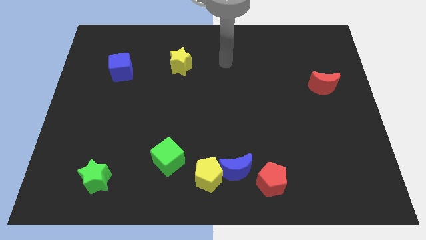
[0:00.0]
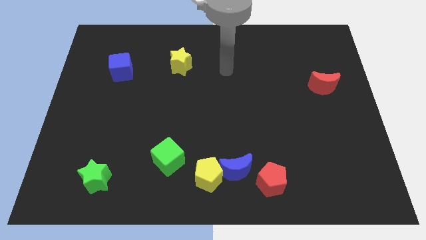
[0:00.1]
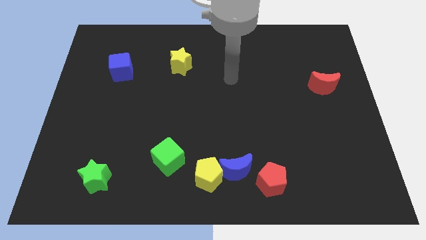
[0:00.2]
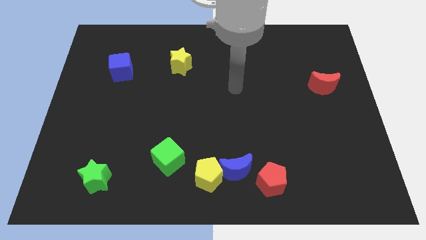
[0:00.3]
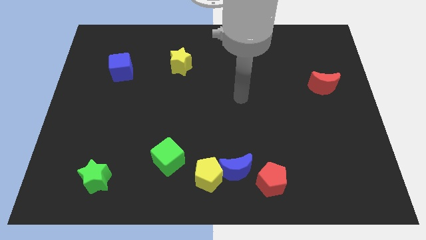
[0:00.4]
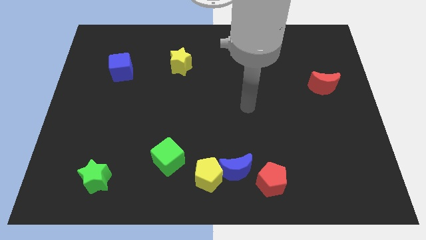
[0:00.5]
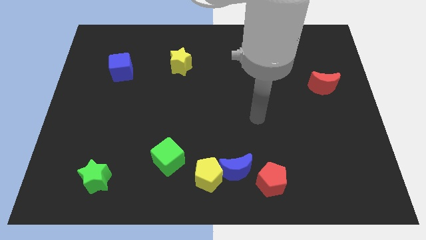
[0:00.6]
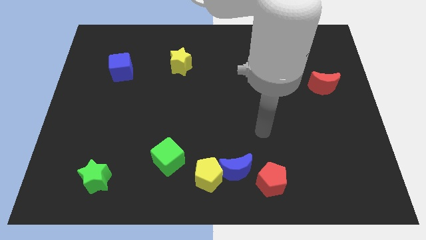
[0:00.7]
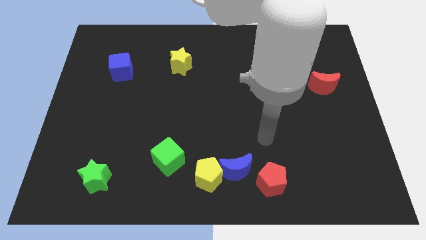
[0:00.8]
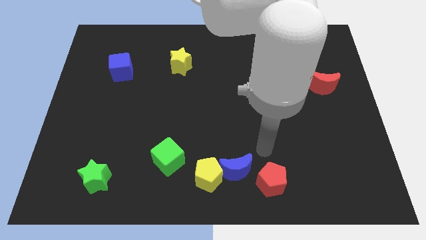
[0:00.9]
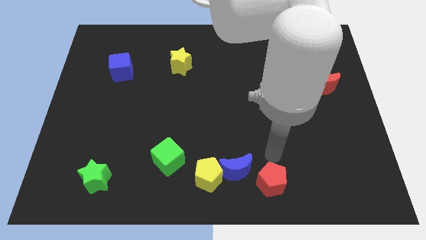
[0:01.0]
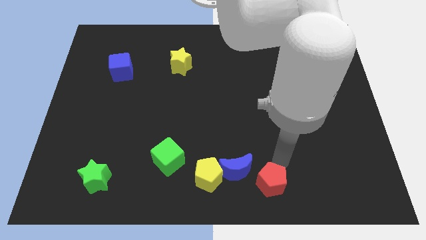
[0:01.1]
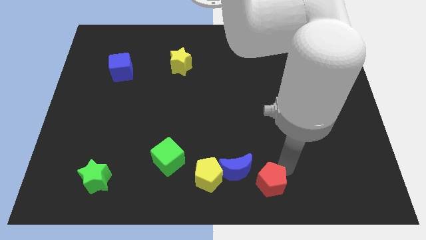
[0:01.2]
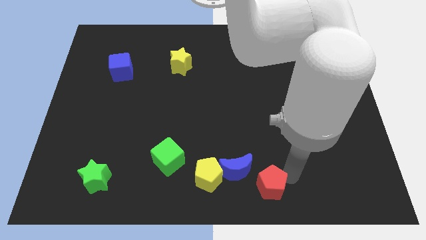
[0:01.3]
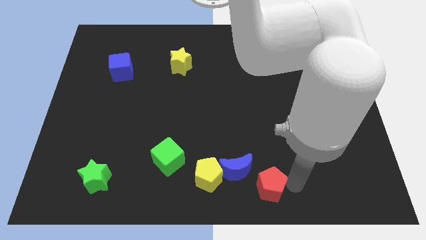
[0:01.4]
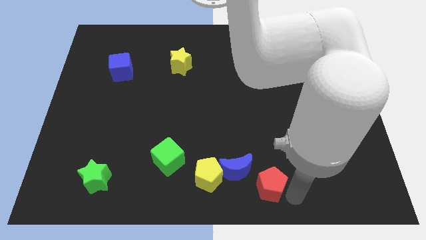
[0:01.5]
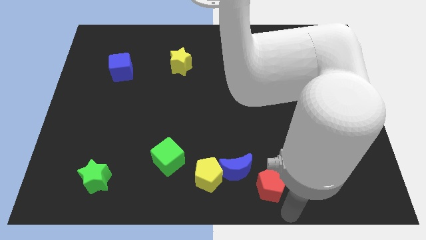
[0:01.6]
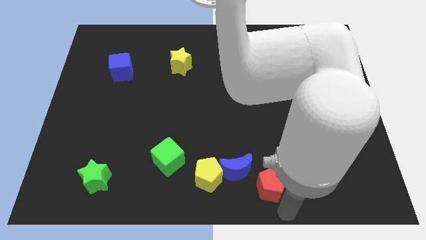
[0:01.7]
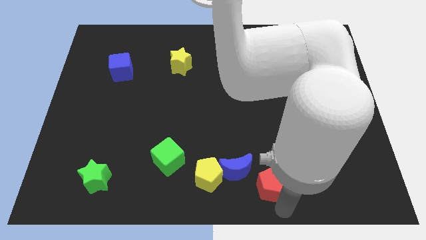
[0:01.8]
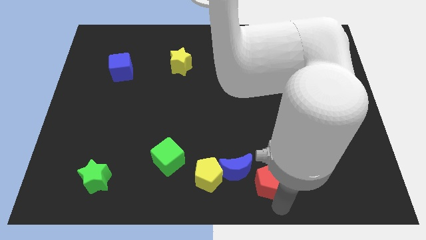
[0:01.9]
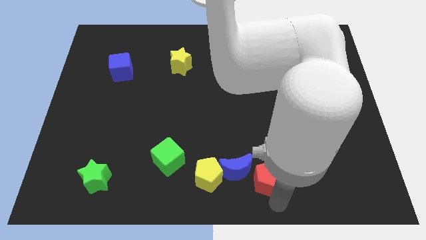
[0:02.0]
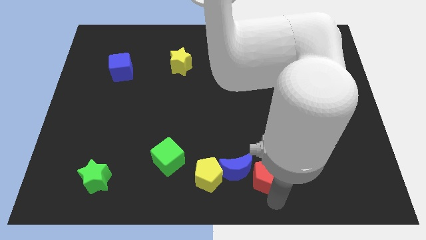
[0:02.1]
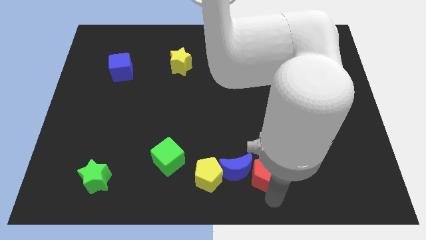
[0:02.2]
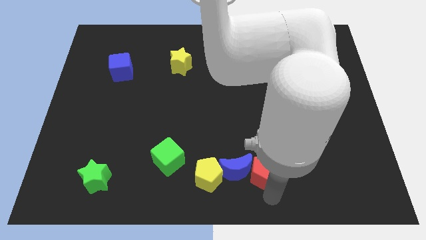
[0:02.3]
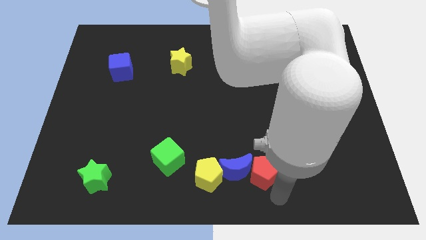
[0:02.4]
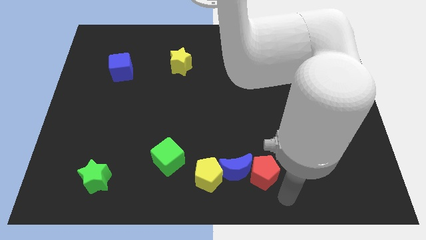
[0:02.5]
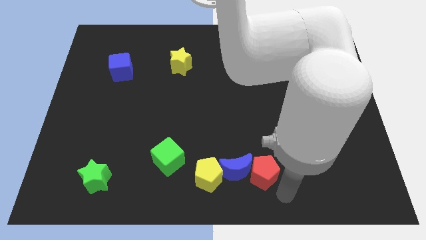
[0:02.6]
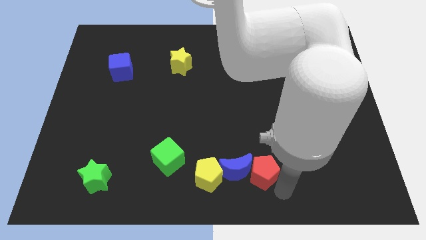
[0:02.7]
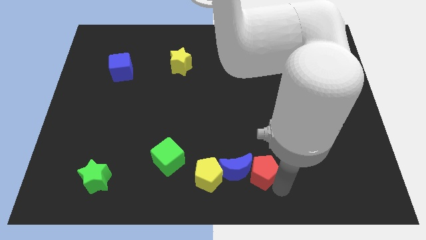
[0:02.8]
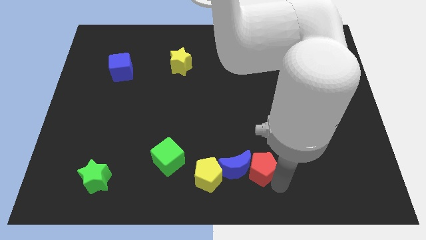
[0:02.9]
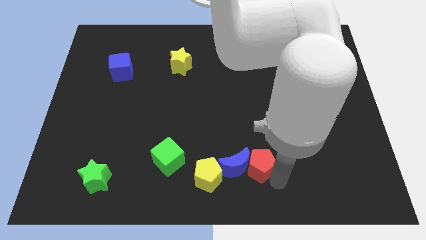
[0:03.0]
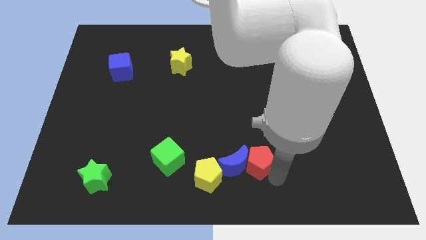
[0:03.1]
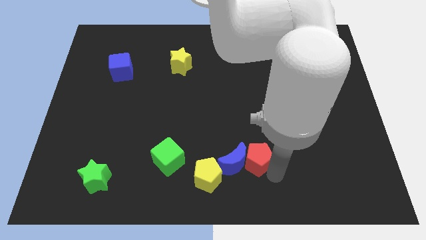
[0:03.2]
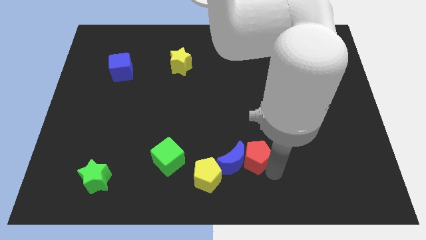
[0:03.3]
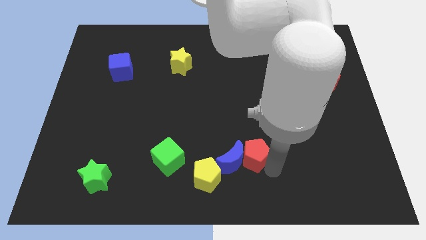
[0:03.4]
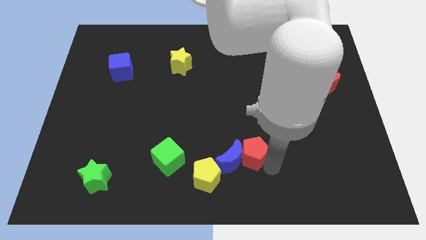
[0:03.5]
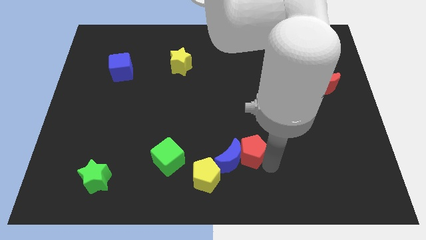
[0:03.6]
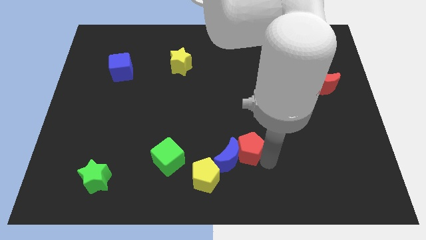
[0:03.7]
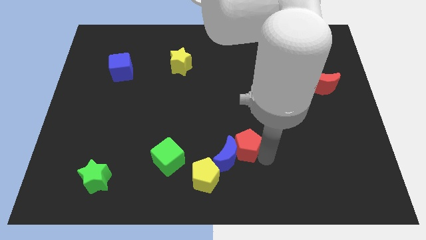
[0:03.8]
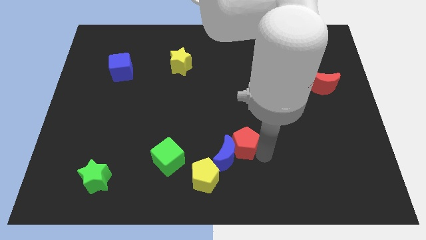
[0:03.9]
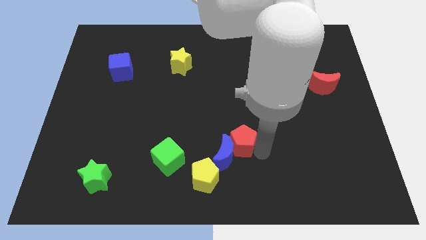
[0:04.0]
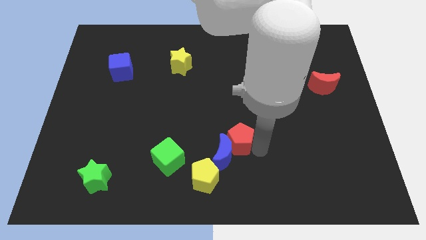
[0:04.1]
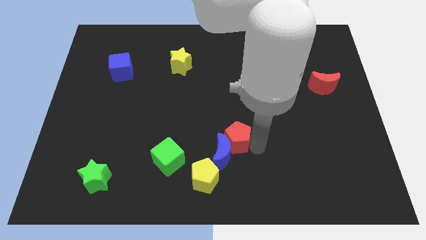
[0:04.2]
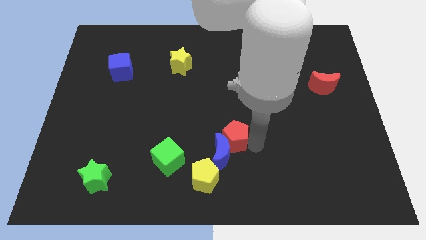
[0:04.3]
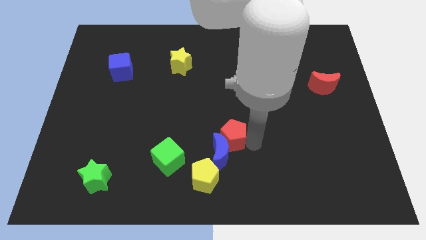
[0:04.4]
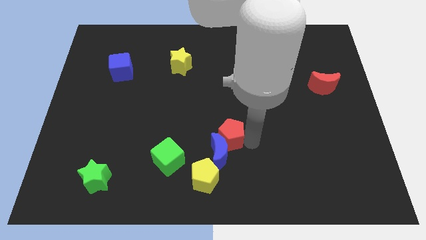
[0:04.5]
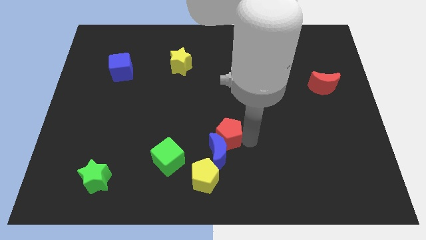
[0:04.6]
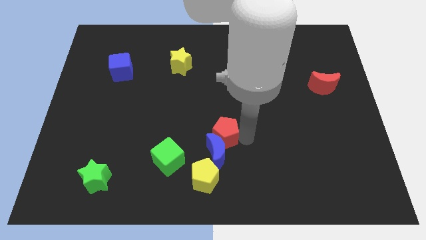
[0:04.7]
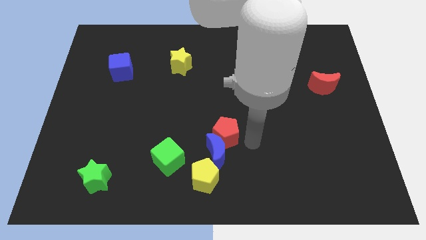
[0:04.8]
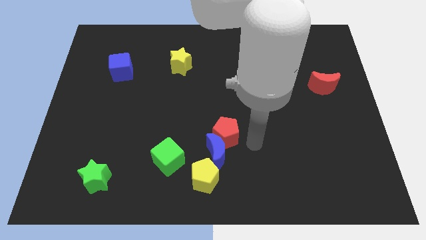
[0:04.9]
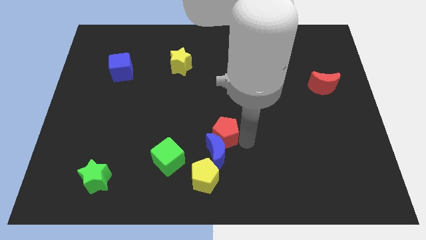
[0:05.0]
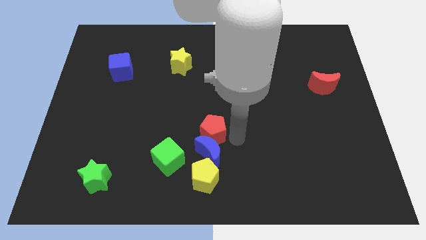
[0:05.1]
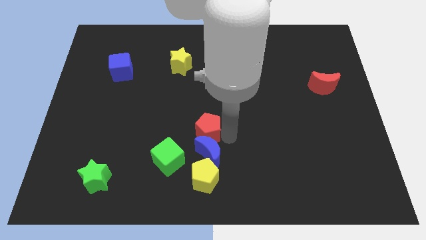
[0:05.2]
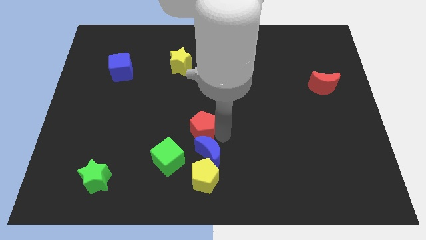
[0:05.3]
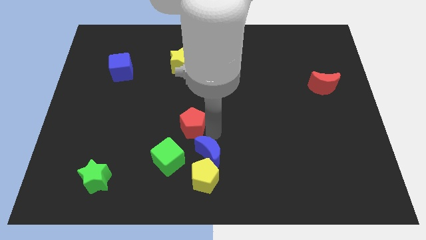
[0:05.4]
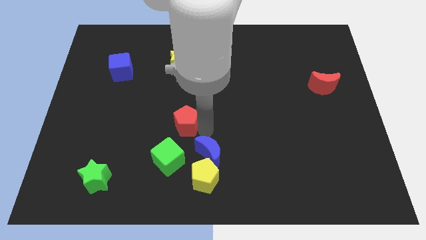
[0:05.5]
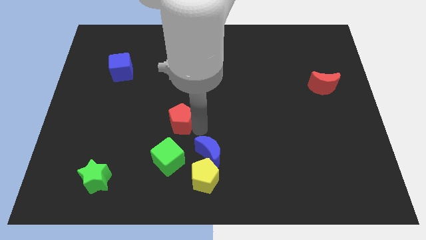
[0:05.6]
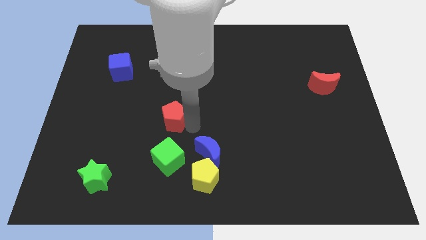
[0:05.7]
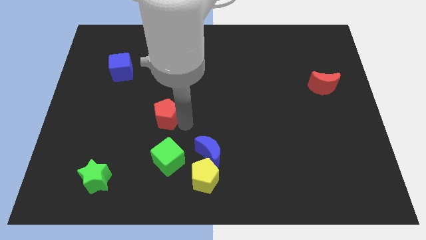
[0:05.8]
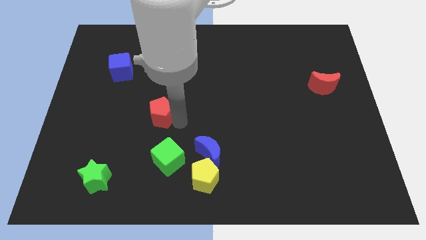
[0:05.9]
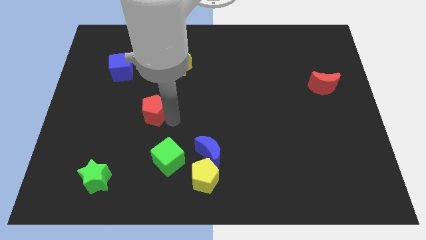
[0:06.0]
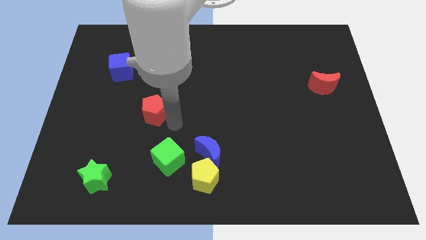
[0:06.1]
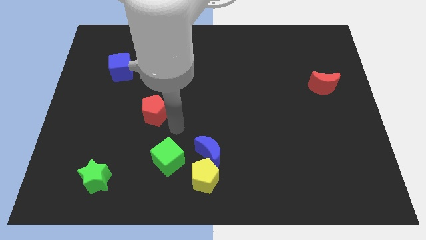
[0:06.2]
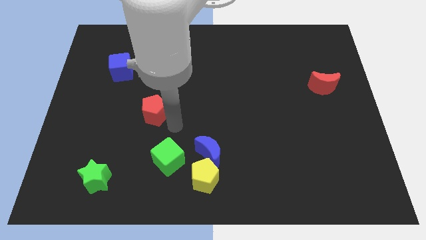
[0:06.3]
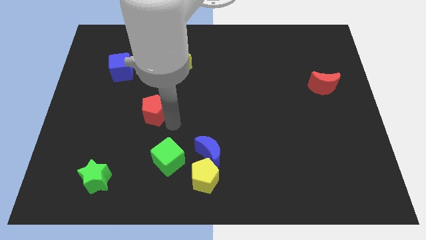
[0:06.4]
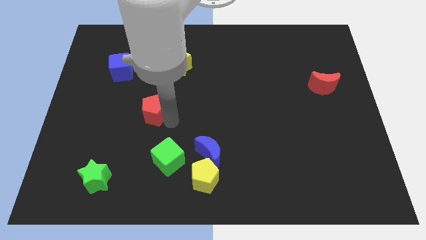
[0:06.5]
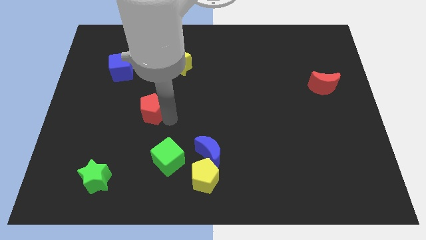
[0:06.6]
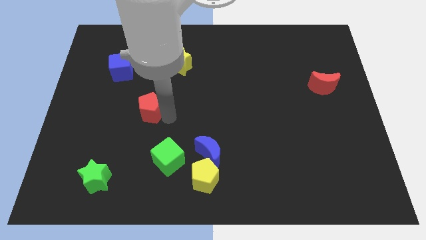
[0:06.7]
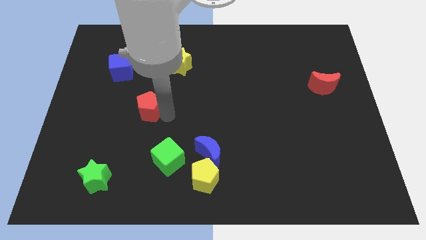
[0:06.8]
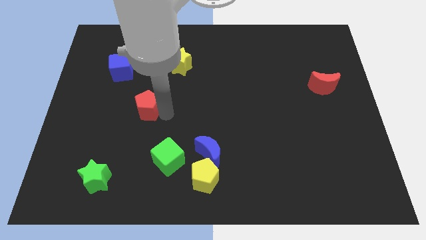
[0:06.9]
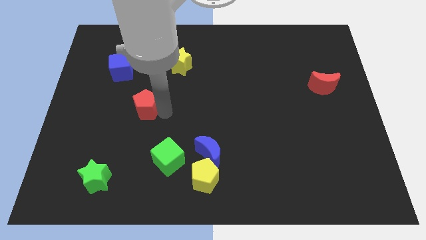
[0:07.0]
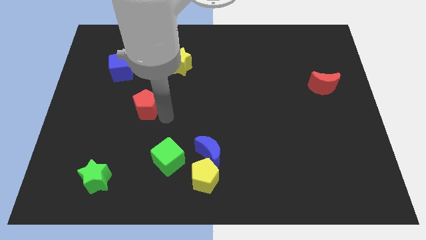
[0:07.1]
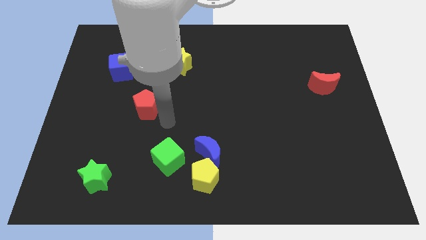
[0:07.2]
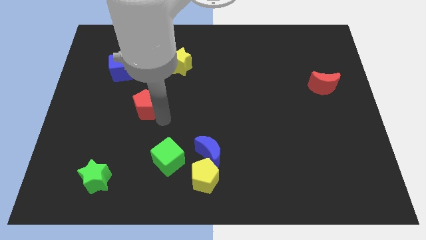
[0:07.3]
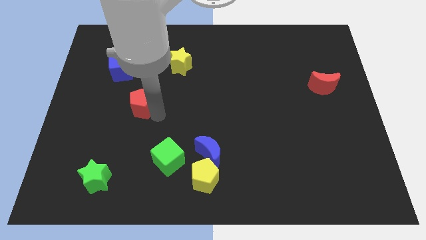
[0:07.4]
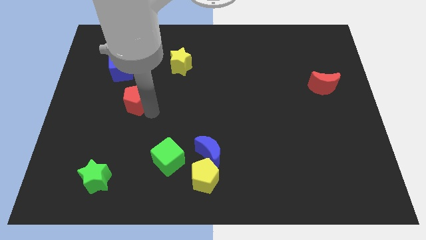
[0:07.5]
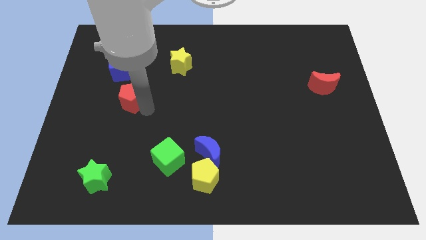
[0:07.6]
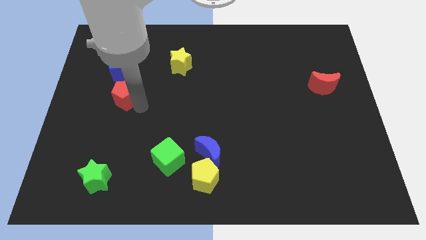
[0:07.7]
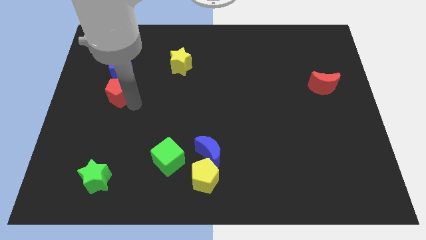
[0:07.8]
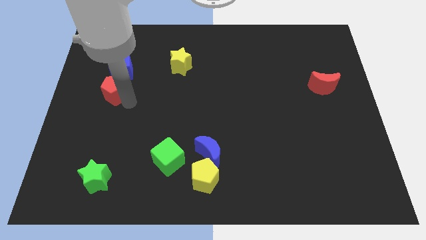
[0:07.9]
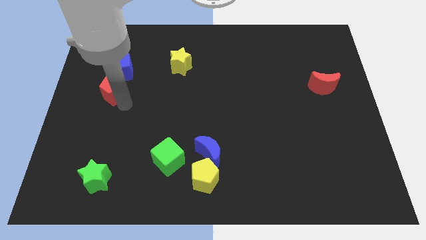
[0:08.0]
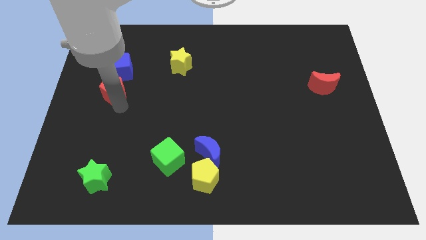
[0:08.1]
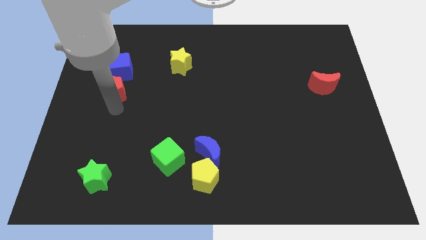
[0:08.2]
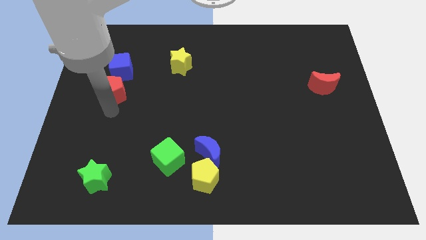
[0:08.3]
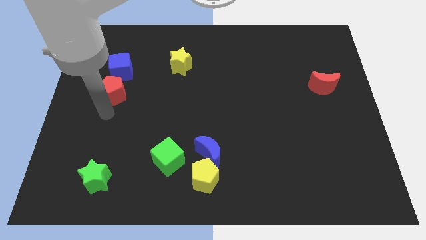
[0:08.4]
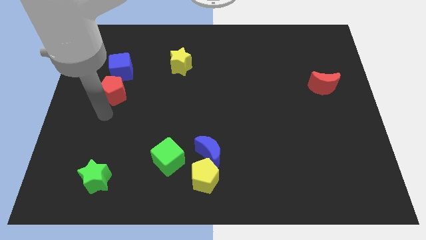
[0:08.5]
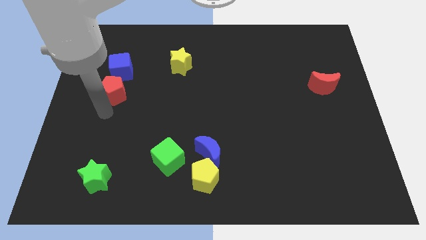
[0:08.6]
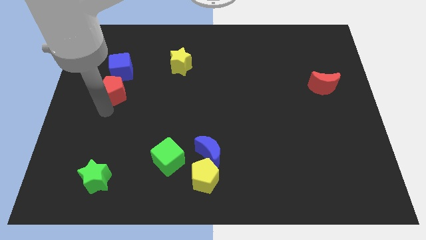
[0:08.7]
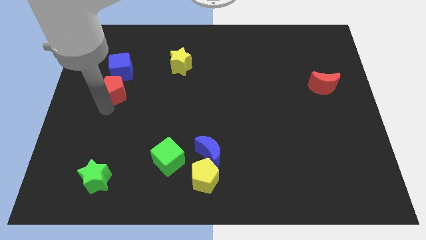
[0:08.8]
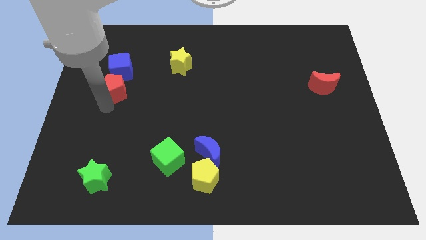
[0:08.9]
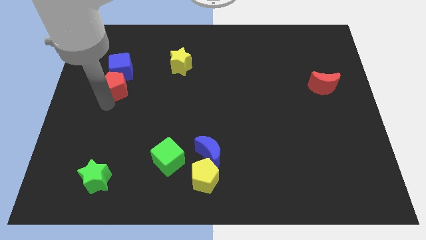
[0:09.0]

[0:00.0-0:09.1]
slide the red pentagon close to the blue cube
